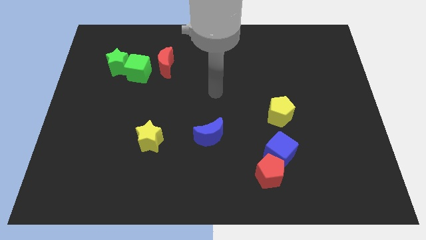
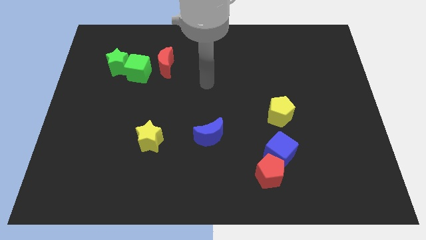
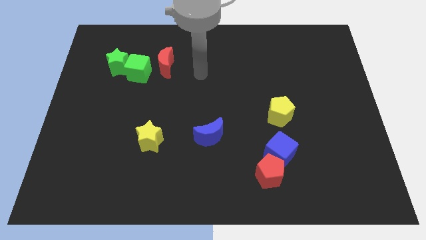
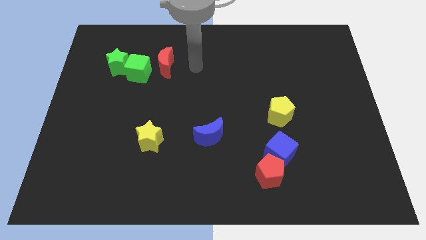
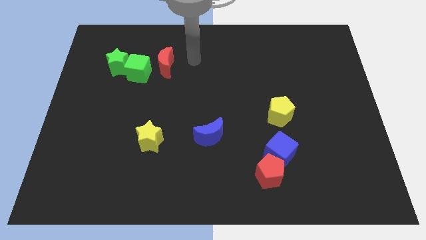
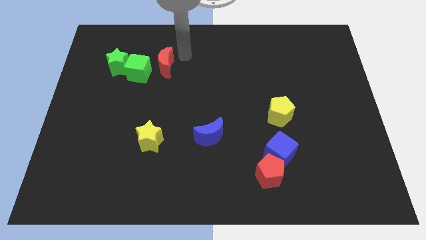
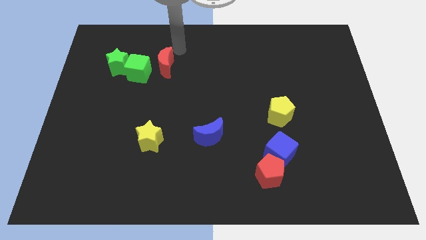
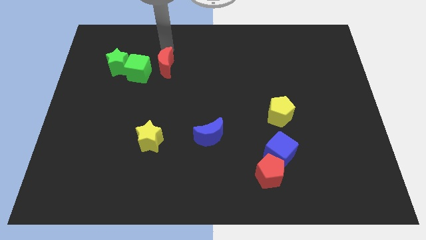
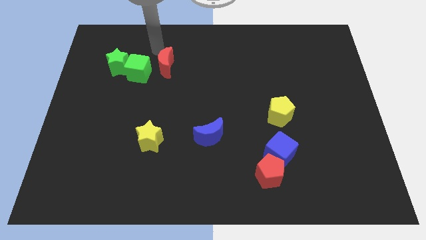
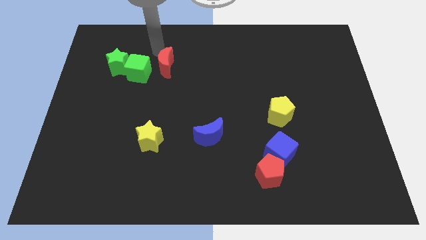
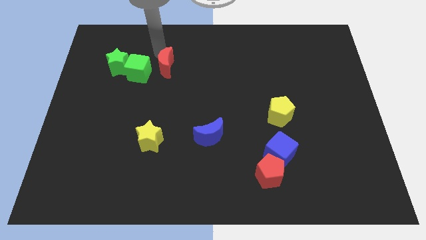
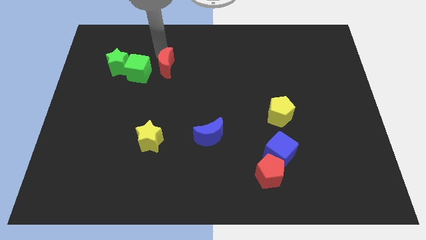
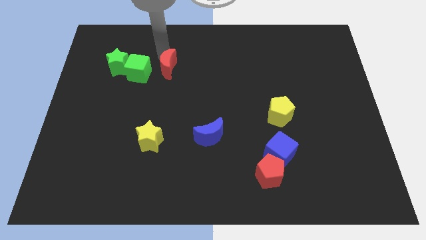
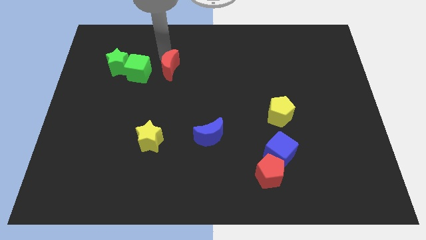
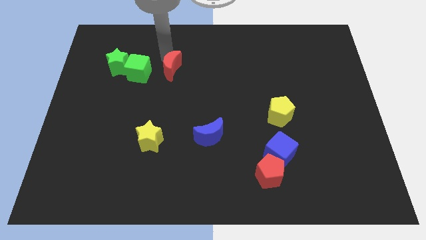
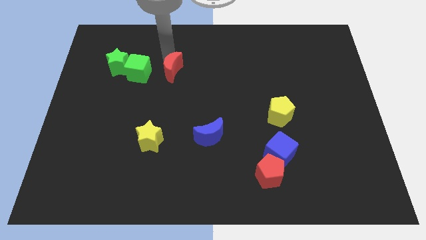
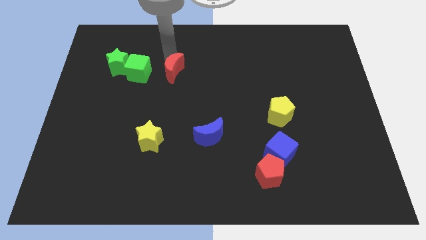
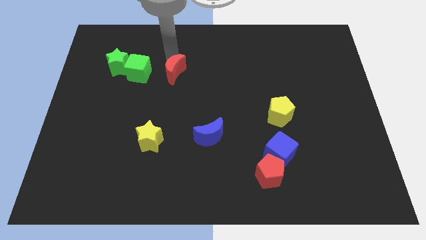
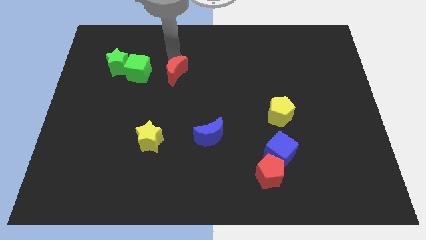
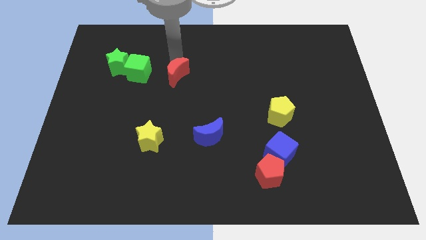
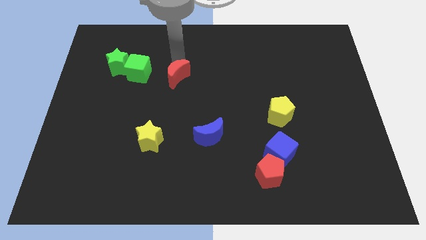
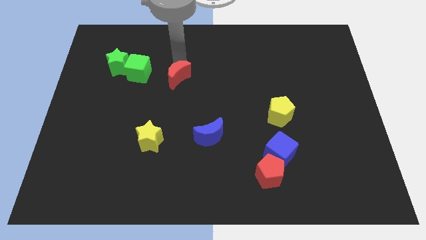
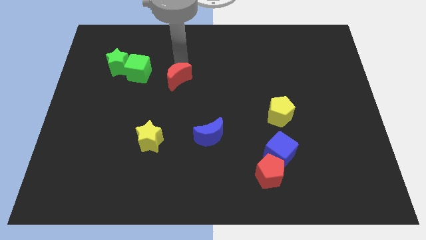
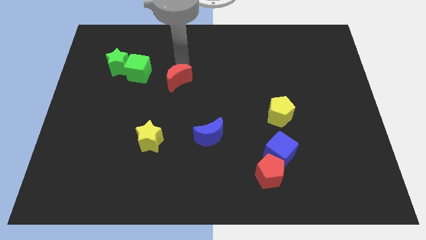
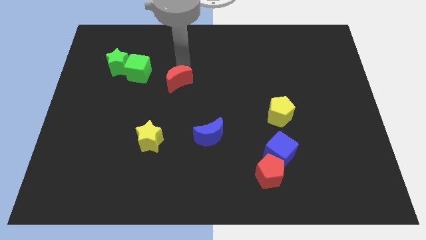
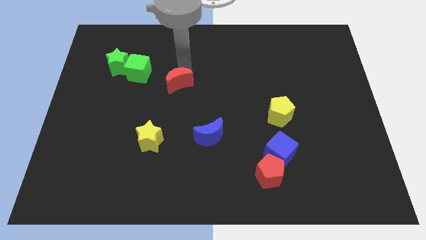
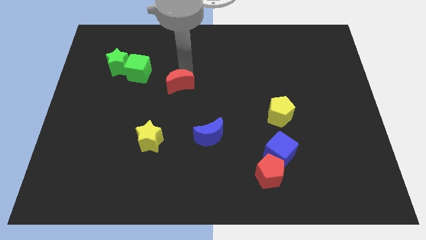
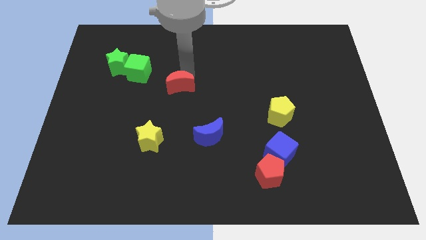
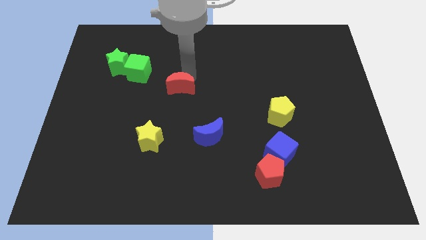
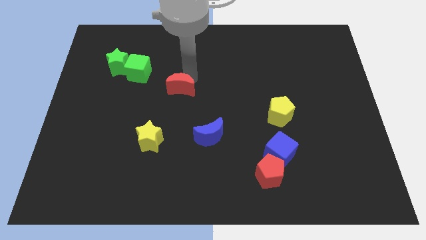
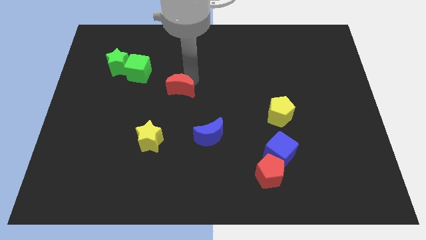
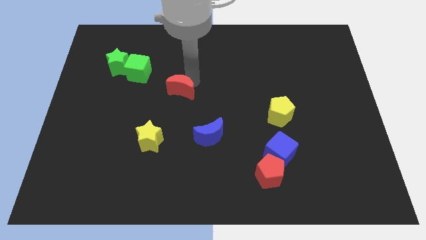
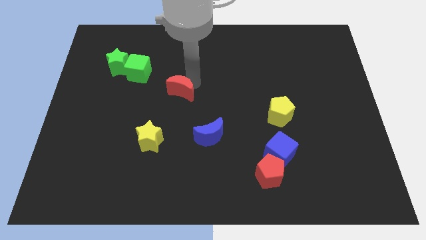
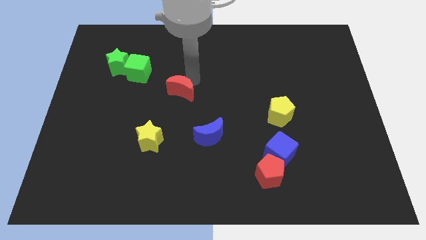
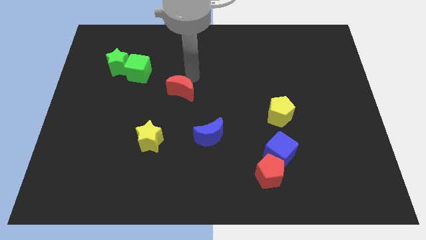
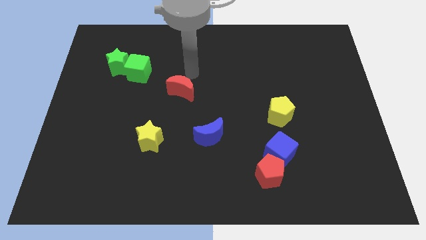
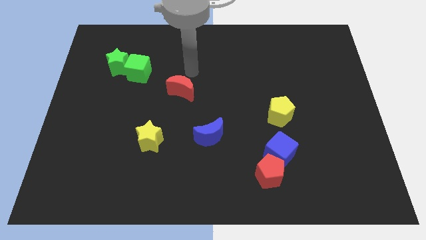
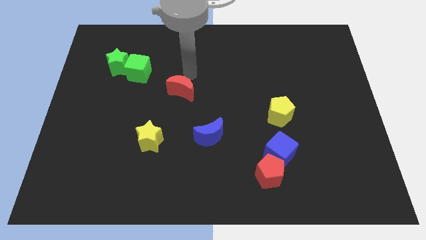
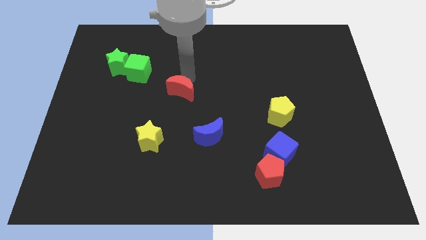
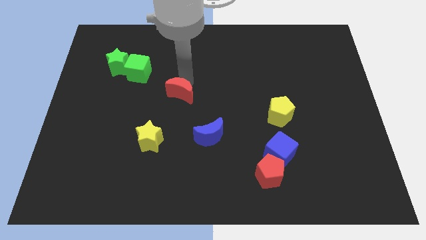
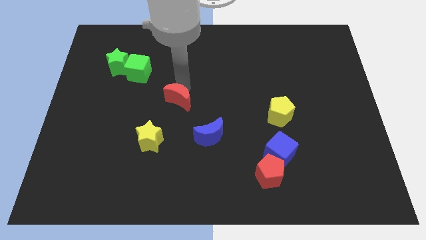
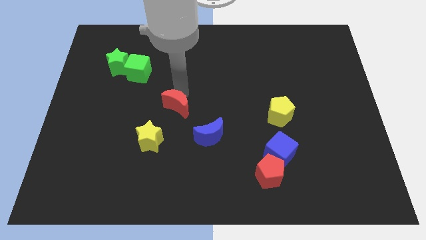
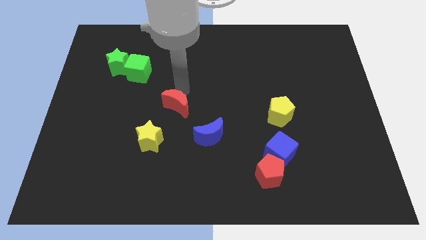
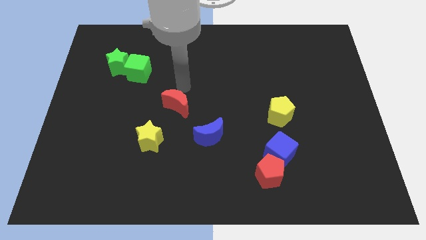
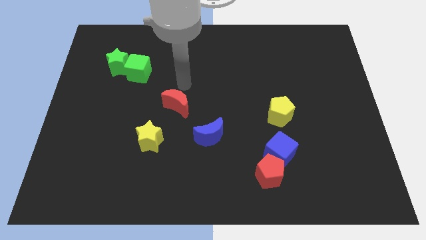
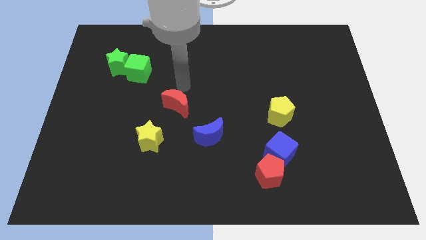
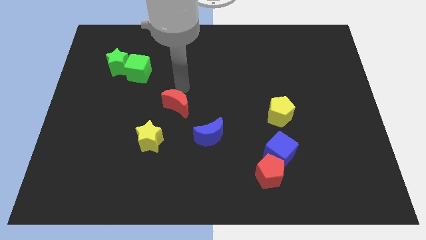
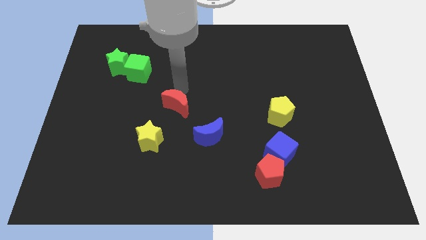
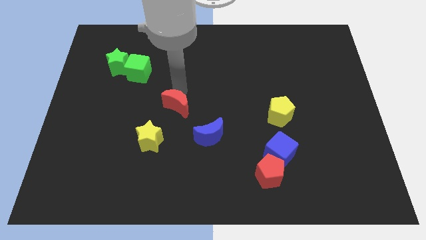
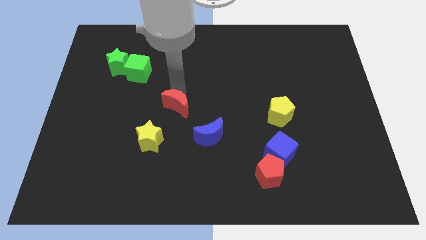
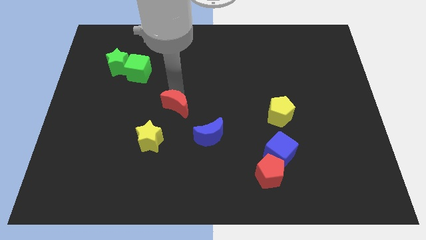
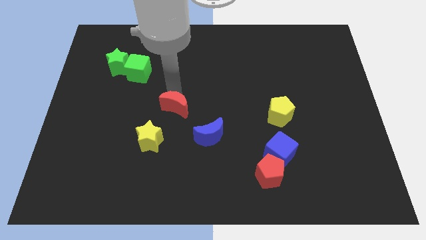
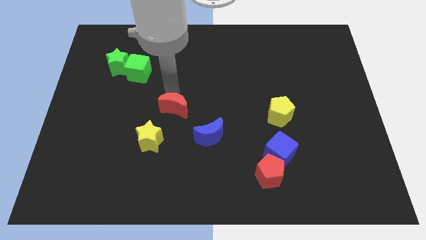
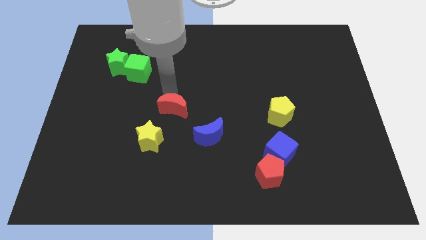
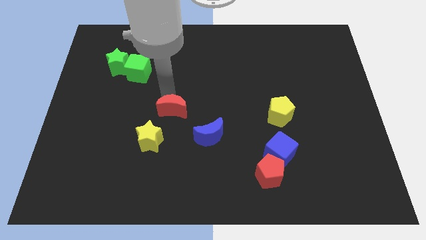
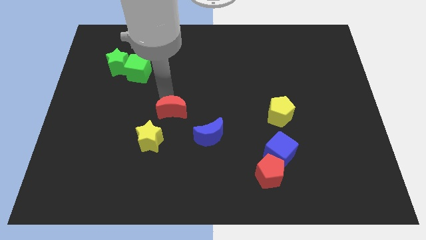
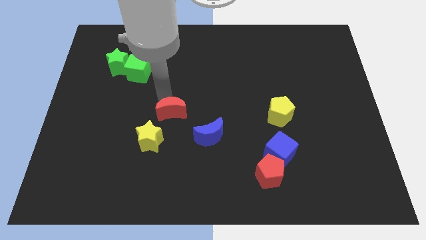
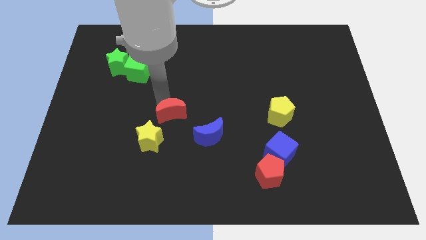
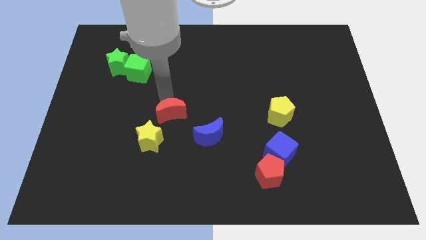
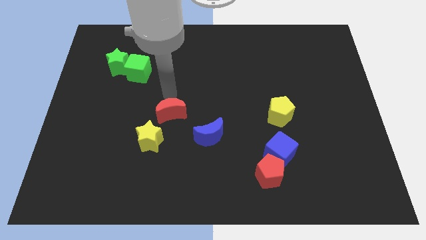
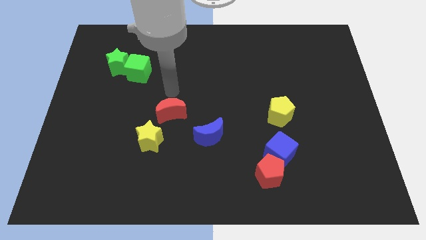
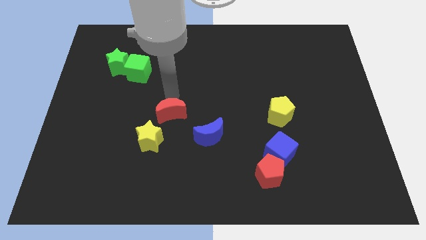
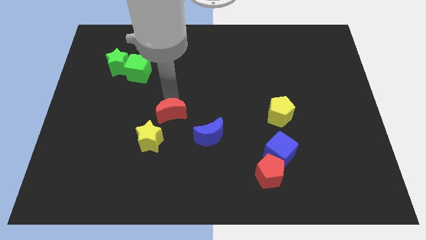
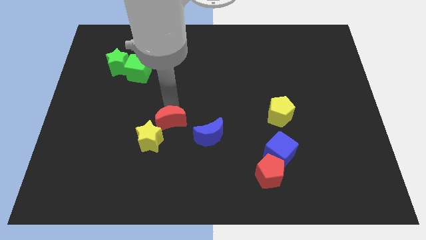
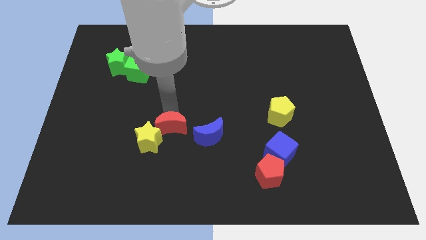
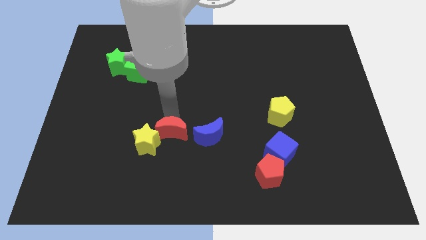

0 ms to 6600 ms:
slide the red moon down

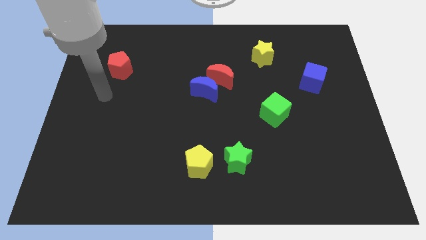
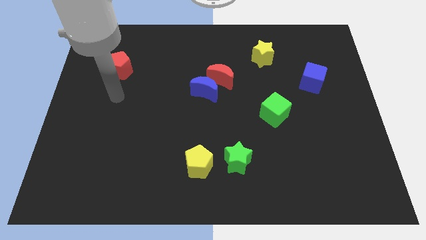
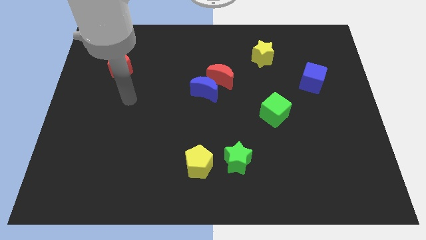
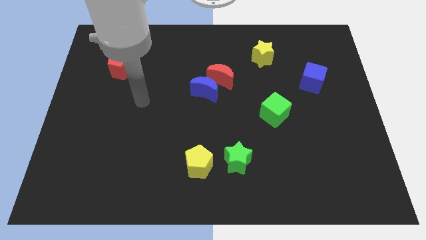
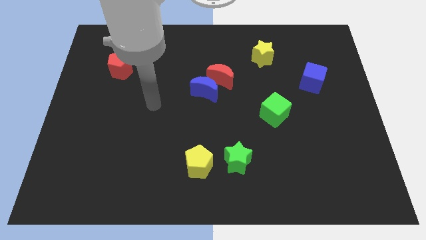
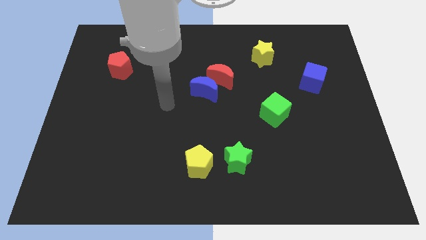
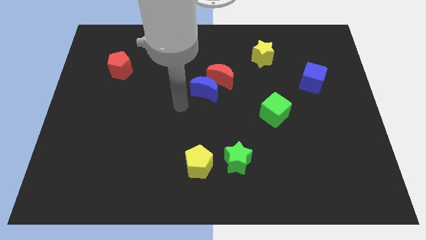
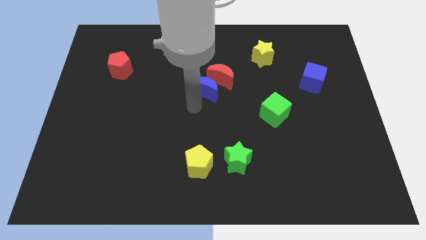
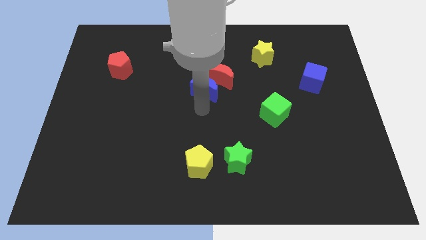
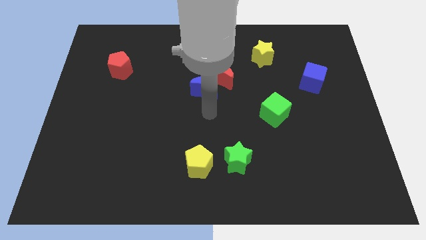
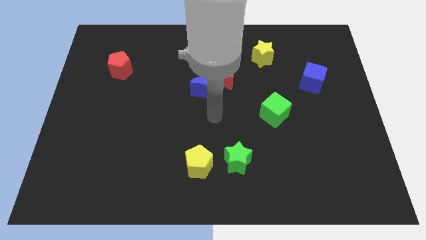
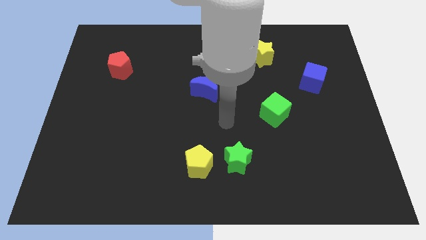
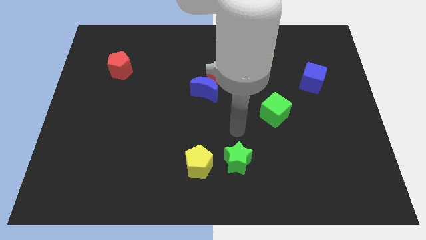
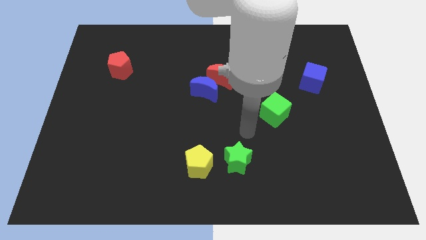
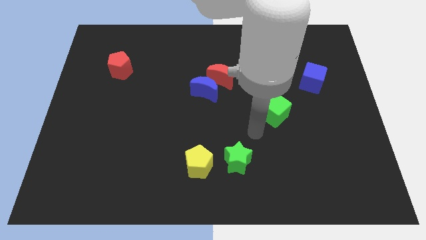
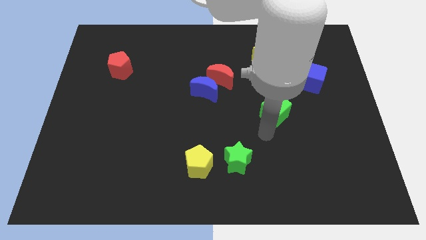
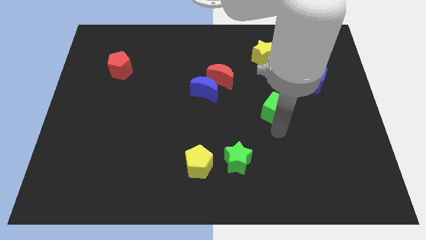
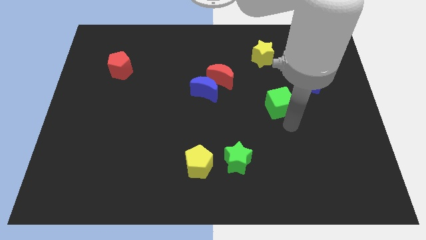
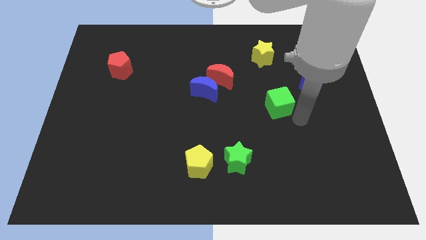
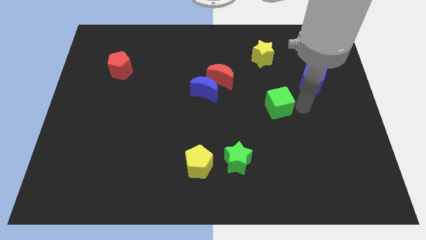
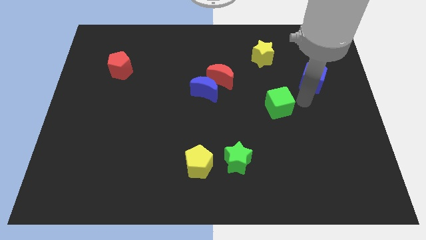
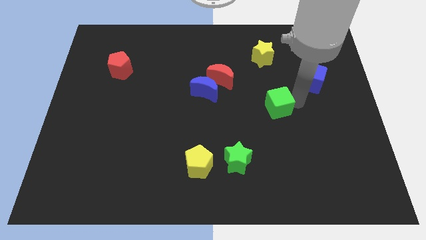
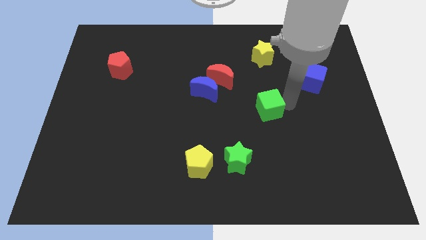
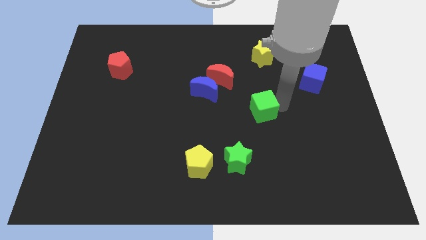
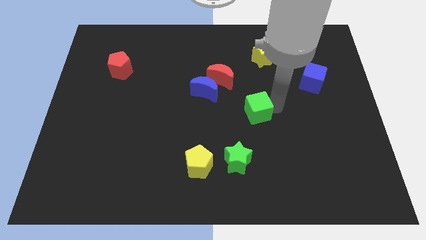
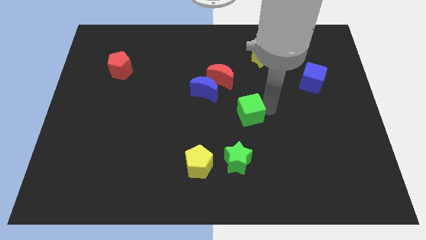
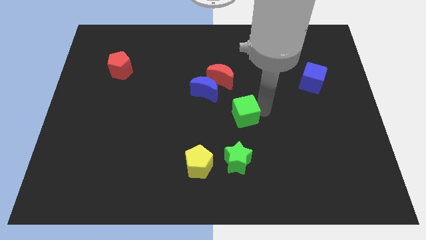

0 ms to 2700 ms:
slide the green cube a bit to the left
